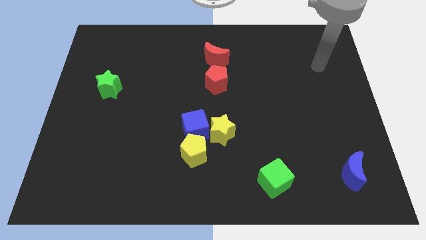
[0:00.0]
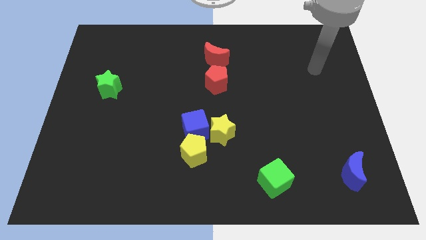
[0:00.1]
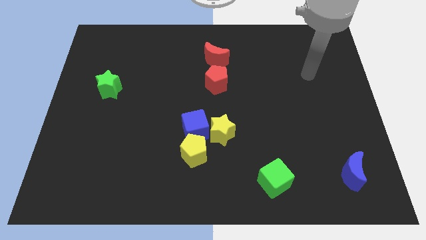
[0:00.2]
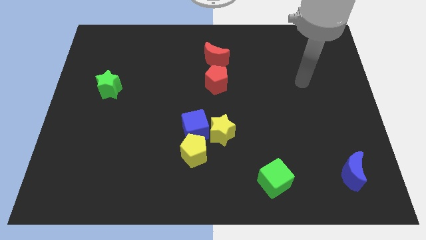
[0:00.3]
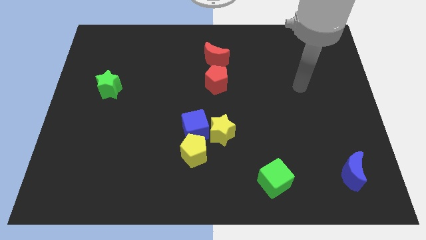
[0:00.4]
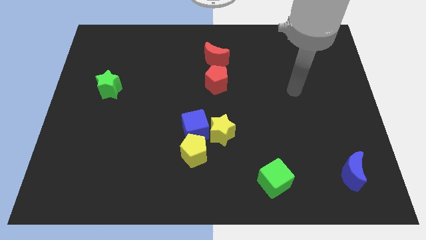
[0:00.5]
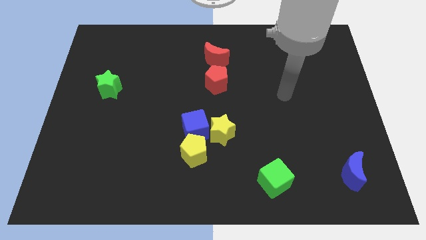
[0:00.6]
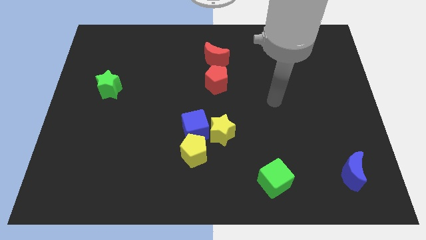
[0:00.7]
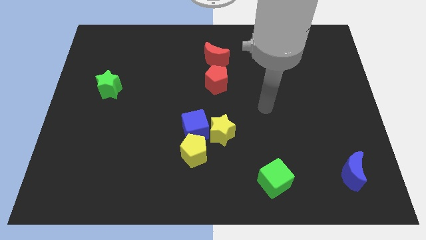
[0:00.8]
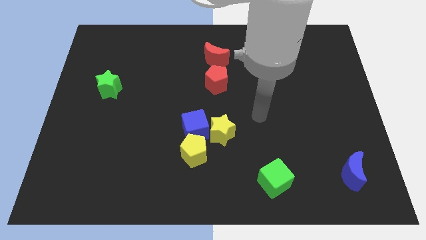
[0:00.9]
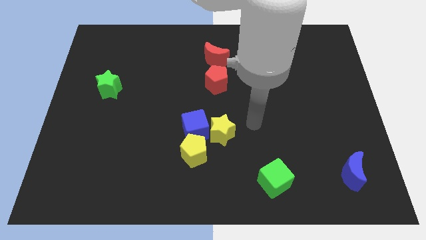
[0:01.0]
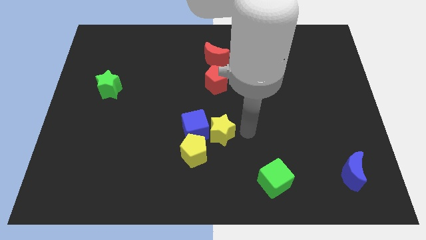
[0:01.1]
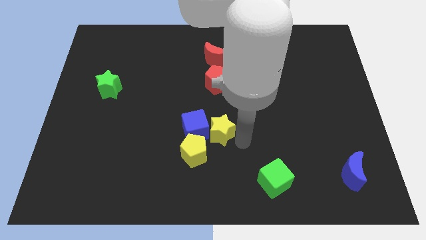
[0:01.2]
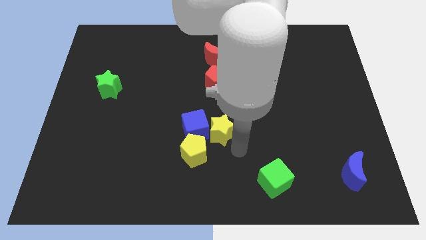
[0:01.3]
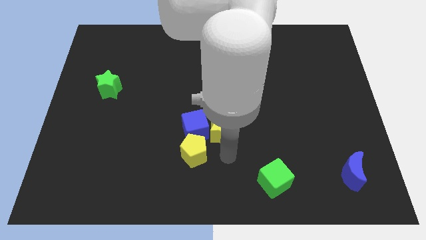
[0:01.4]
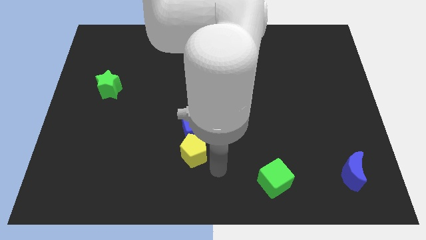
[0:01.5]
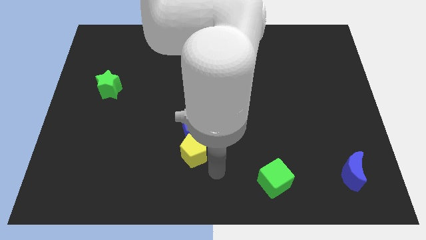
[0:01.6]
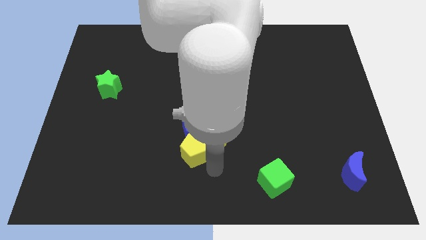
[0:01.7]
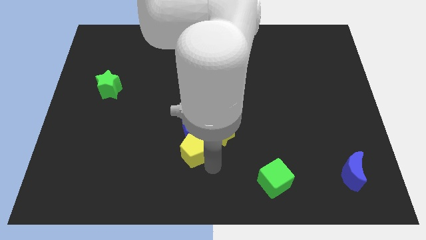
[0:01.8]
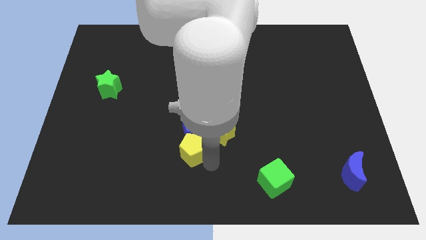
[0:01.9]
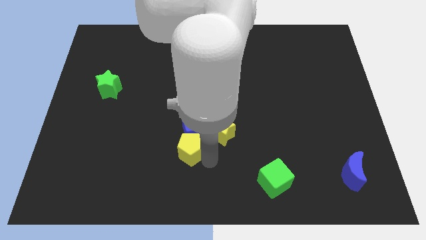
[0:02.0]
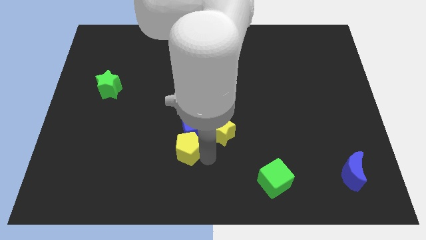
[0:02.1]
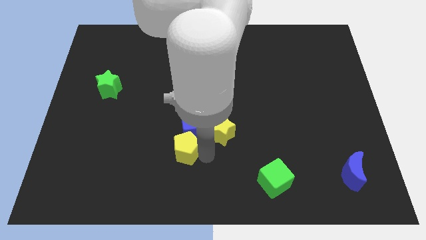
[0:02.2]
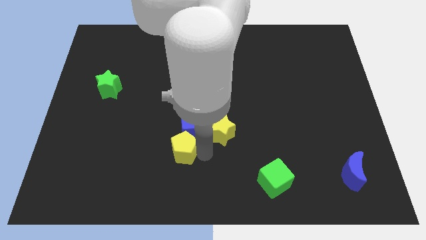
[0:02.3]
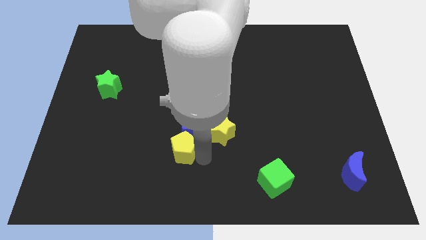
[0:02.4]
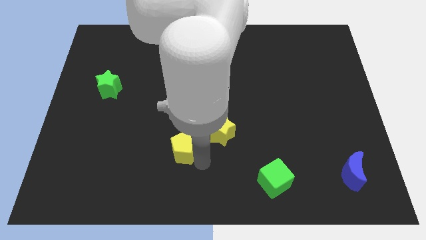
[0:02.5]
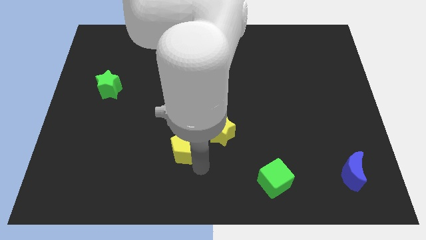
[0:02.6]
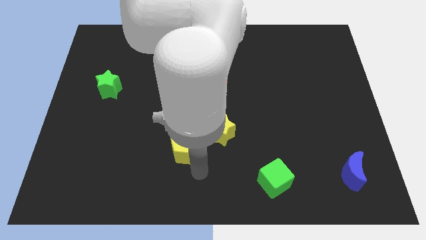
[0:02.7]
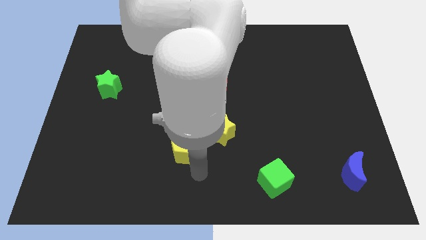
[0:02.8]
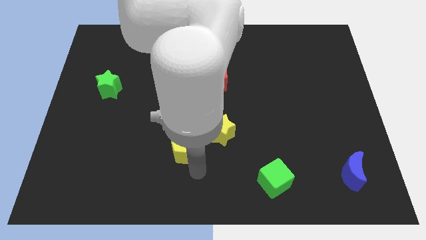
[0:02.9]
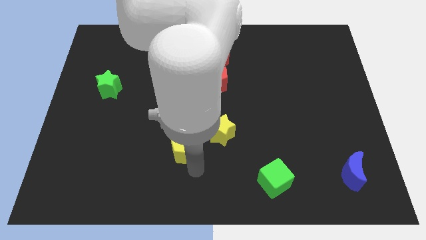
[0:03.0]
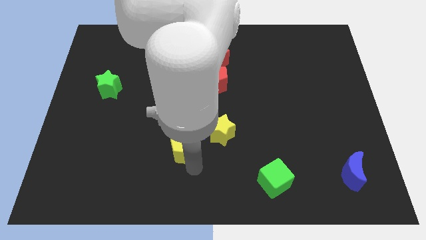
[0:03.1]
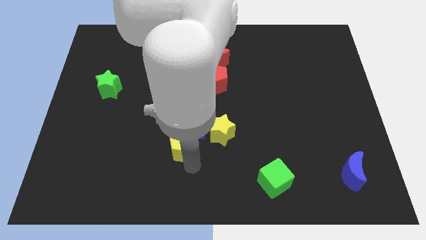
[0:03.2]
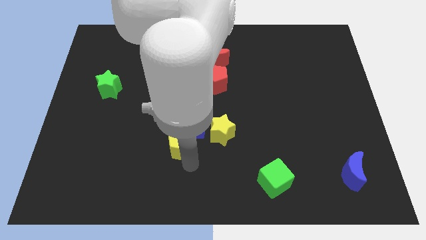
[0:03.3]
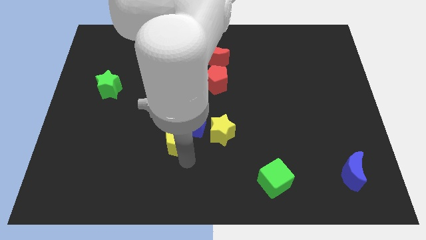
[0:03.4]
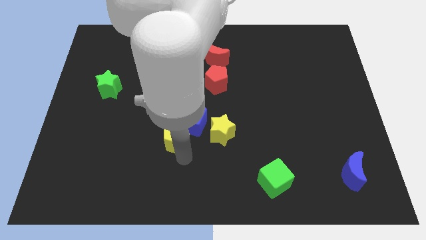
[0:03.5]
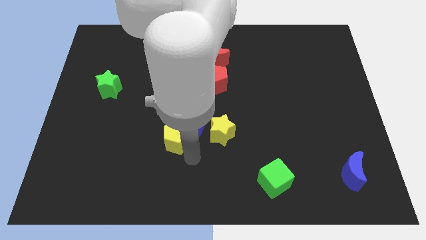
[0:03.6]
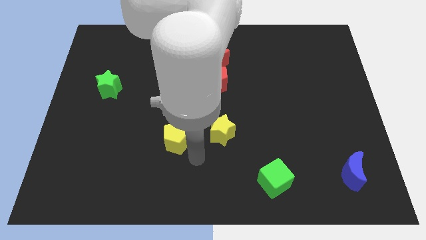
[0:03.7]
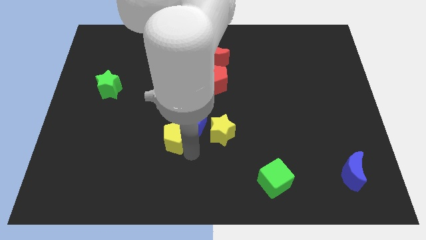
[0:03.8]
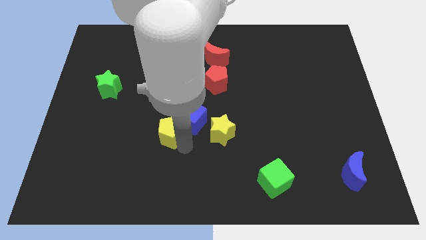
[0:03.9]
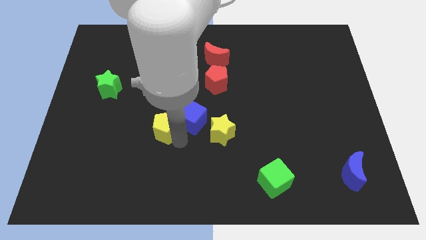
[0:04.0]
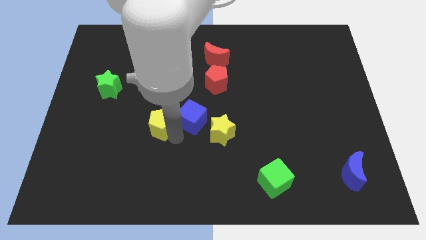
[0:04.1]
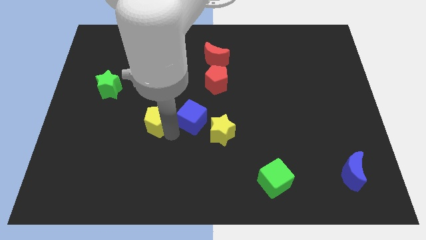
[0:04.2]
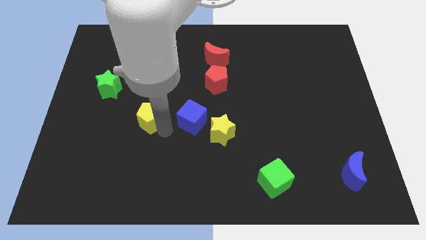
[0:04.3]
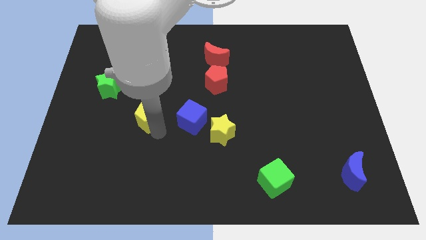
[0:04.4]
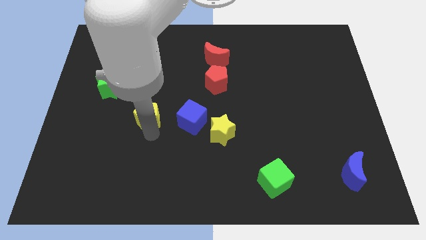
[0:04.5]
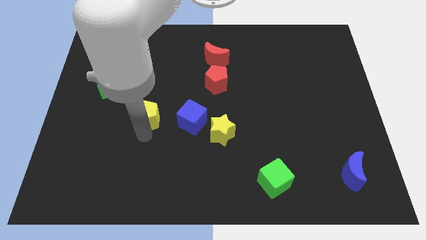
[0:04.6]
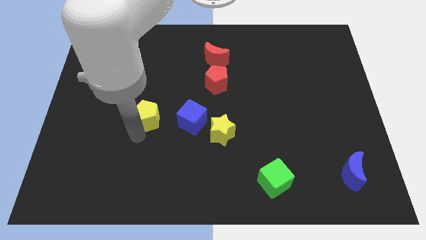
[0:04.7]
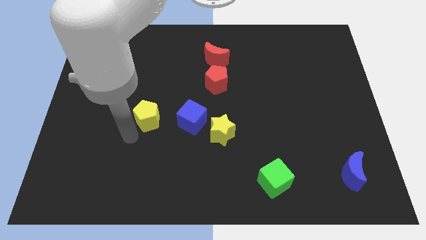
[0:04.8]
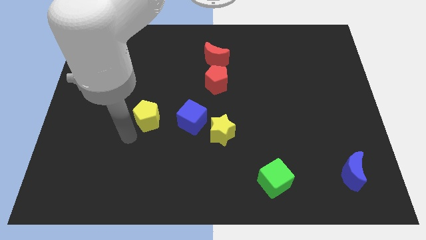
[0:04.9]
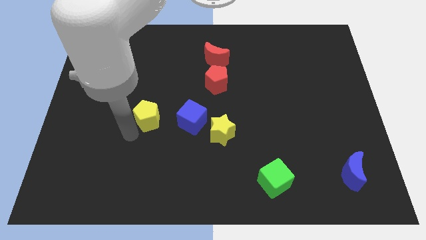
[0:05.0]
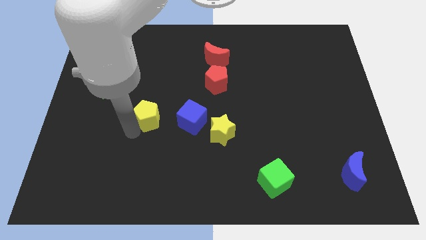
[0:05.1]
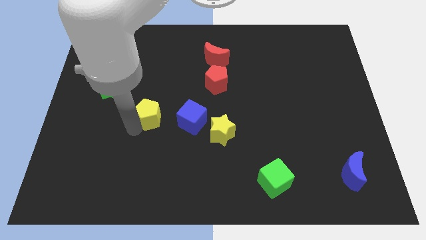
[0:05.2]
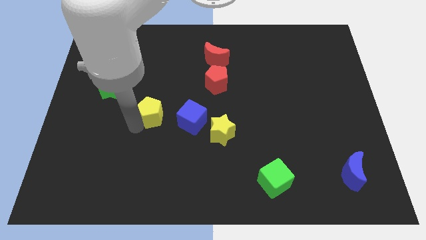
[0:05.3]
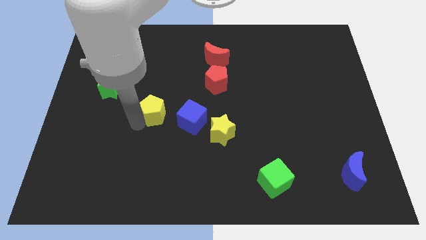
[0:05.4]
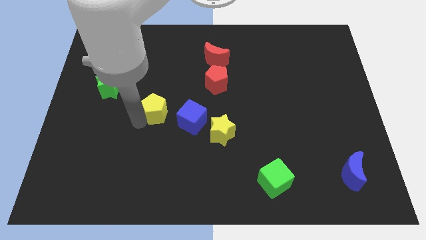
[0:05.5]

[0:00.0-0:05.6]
slightly move the yellow pentagon upwards

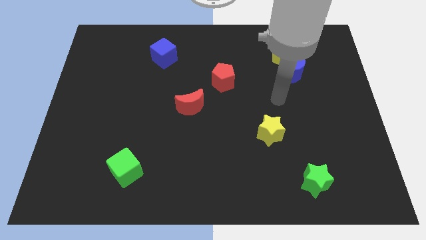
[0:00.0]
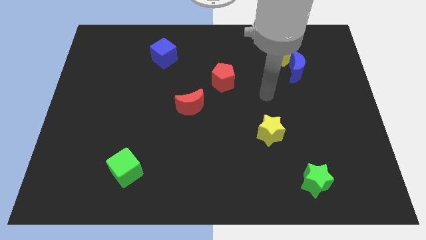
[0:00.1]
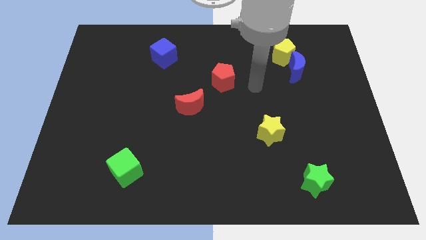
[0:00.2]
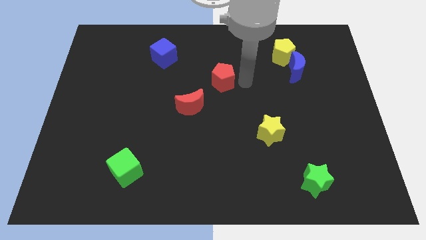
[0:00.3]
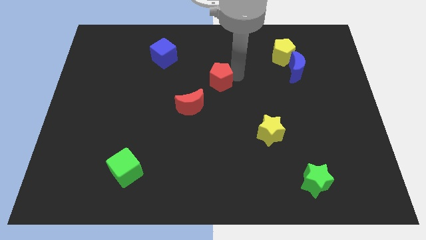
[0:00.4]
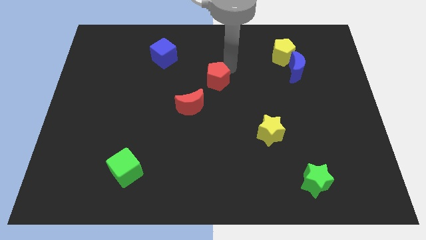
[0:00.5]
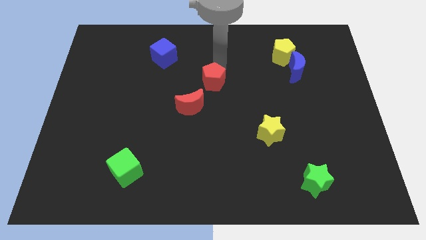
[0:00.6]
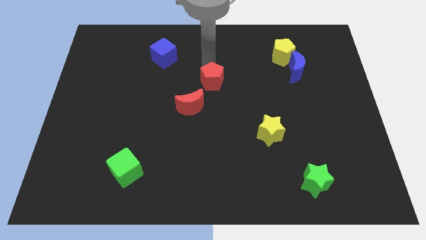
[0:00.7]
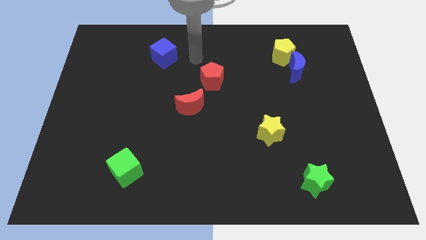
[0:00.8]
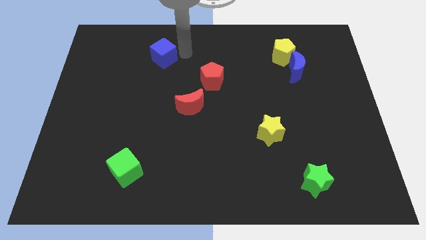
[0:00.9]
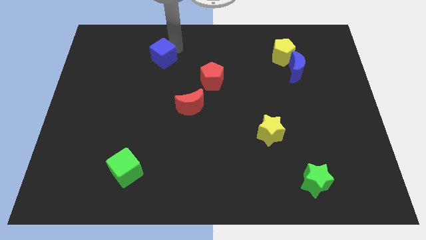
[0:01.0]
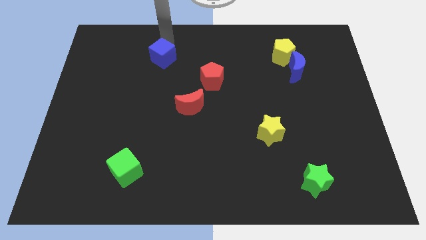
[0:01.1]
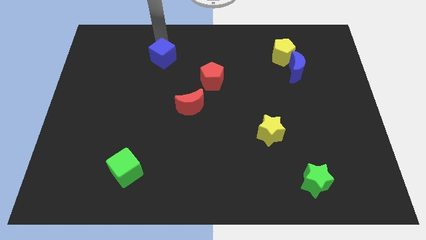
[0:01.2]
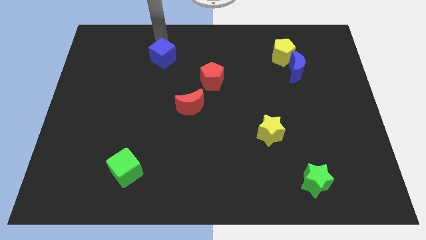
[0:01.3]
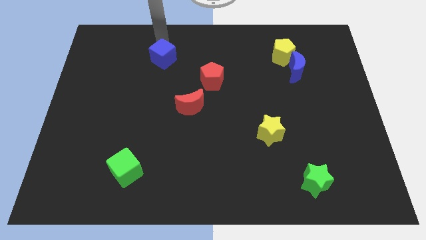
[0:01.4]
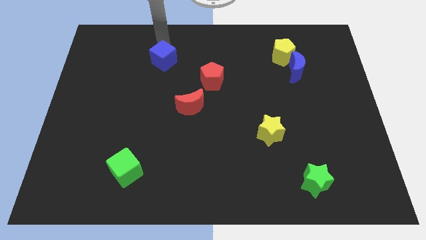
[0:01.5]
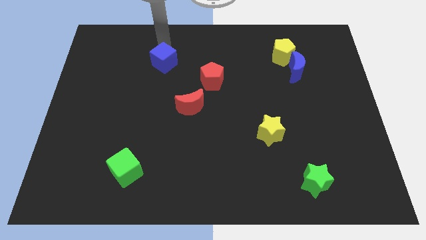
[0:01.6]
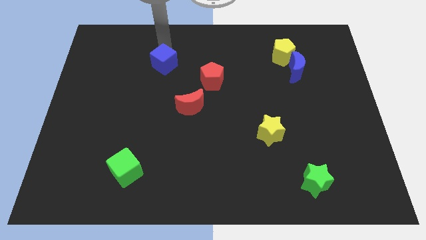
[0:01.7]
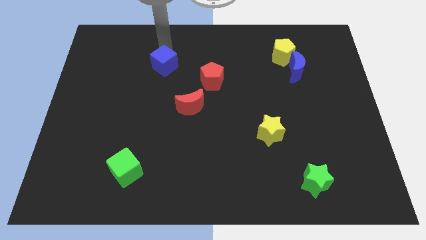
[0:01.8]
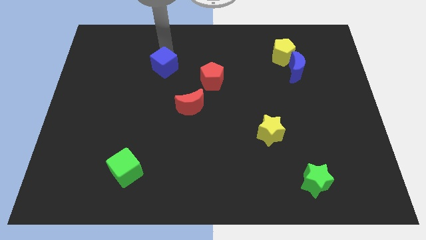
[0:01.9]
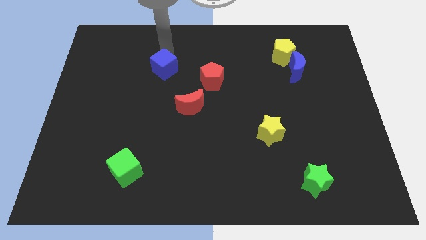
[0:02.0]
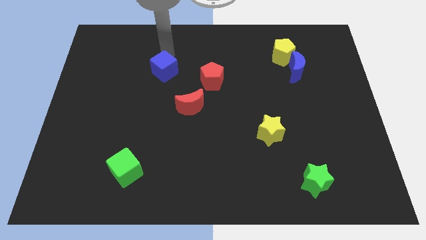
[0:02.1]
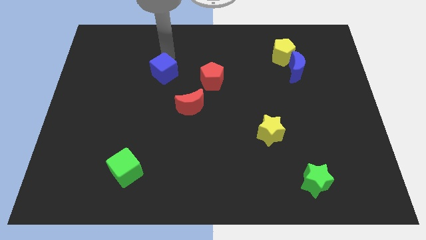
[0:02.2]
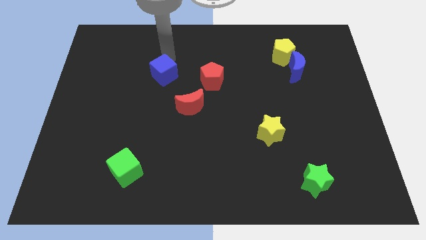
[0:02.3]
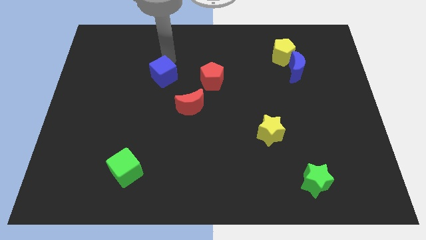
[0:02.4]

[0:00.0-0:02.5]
slide the blue cube down a bit
